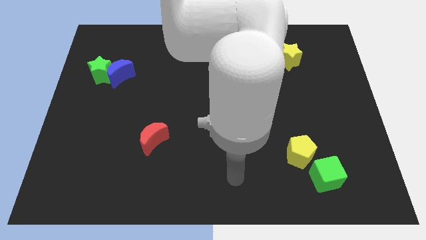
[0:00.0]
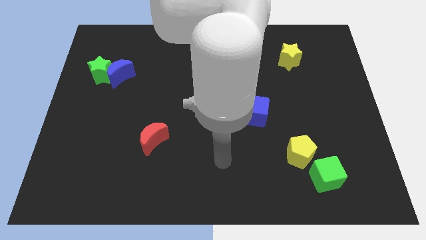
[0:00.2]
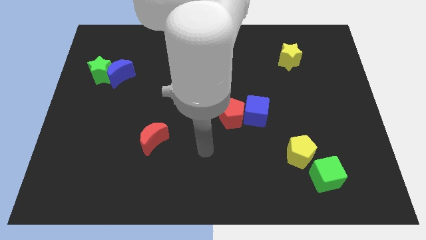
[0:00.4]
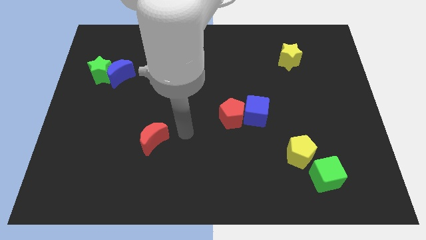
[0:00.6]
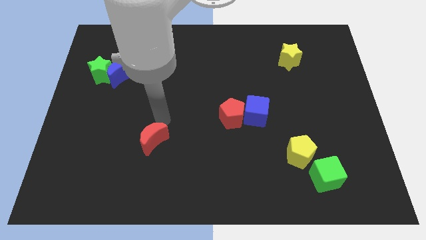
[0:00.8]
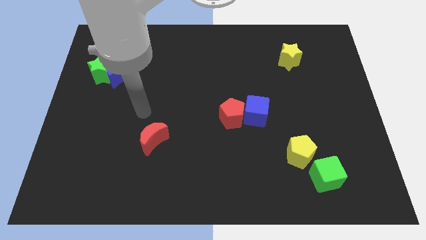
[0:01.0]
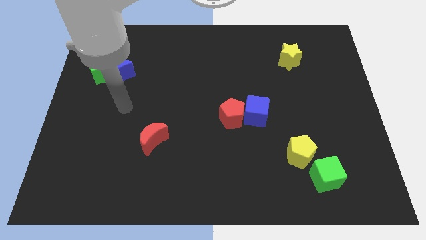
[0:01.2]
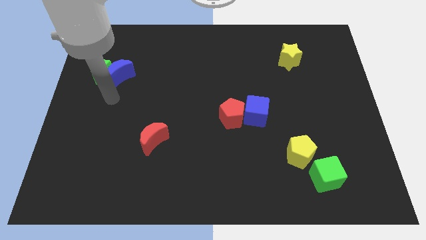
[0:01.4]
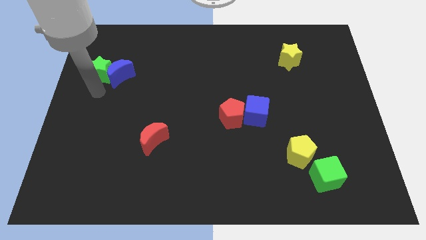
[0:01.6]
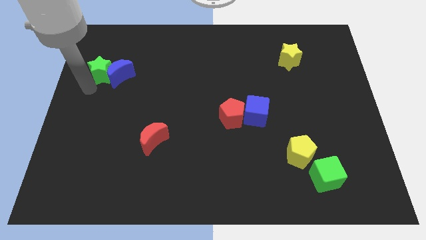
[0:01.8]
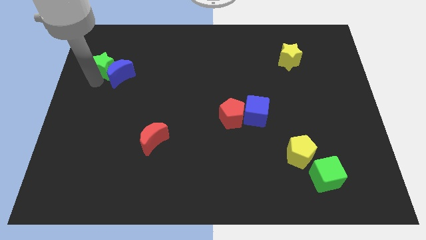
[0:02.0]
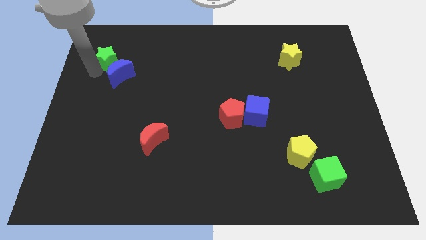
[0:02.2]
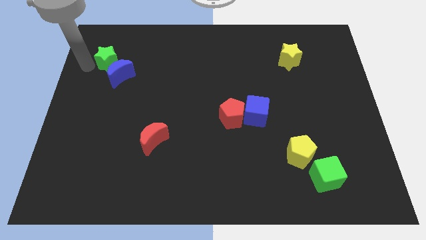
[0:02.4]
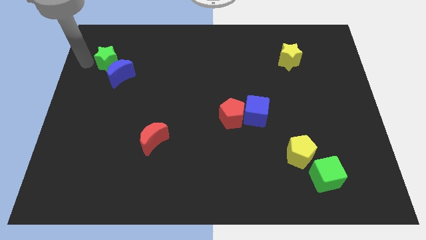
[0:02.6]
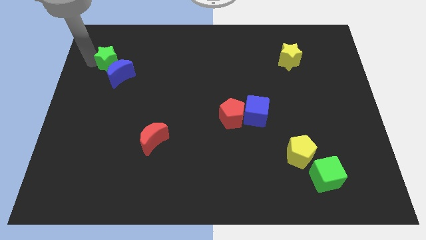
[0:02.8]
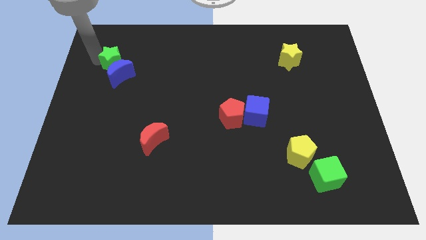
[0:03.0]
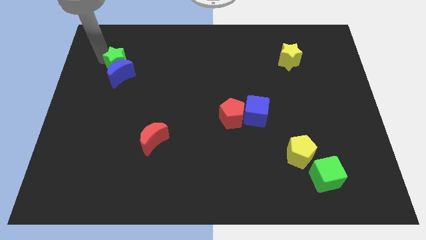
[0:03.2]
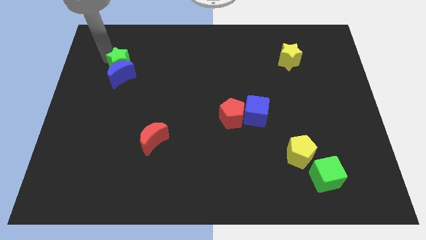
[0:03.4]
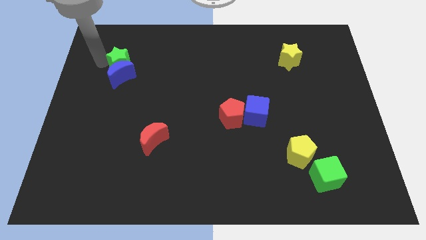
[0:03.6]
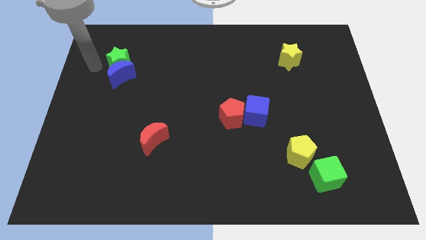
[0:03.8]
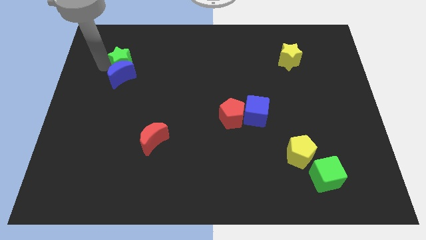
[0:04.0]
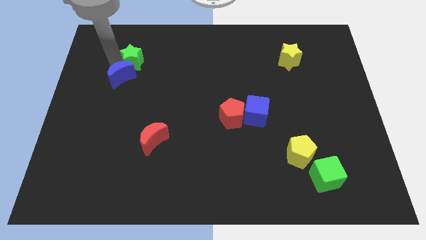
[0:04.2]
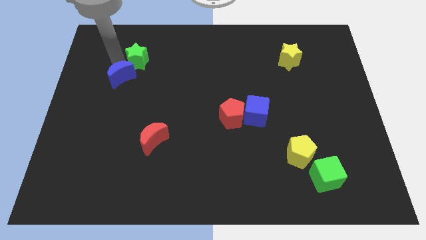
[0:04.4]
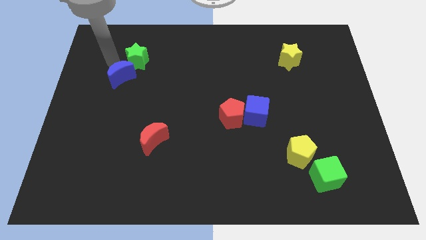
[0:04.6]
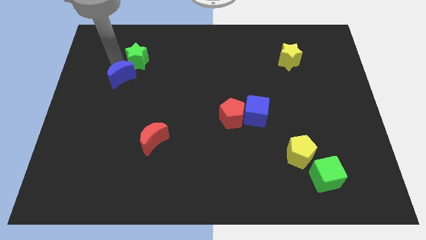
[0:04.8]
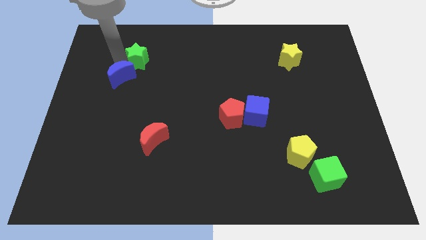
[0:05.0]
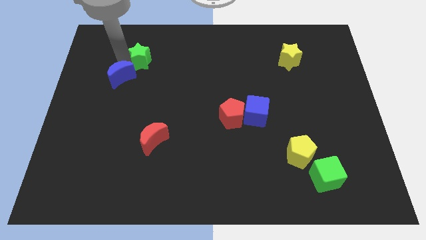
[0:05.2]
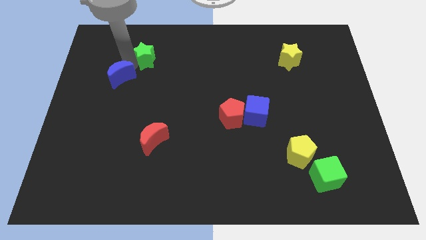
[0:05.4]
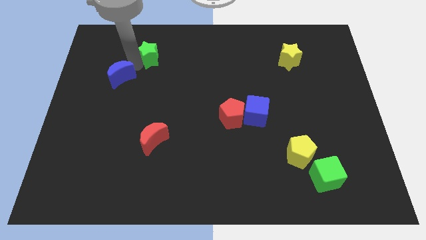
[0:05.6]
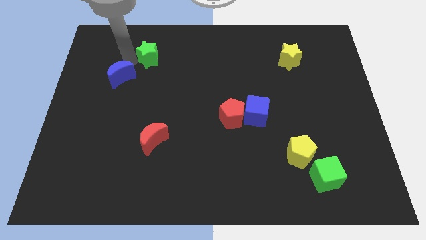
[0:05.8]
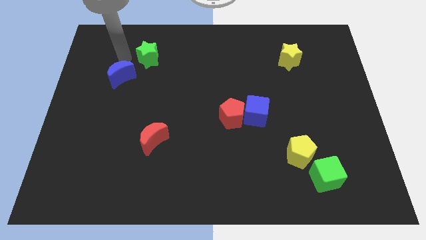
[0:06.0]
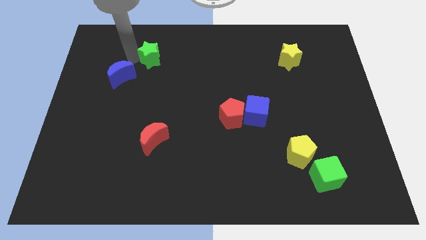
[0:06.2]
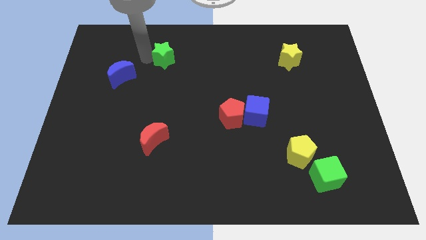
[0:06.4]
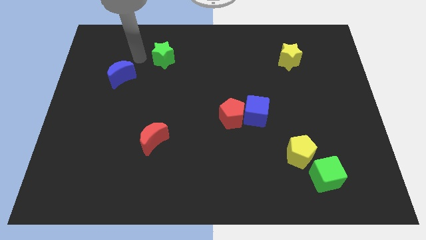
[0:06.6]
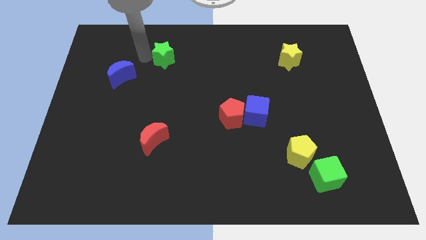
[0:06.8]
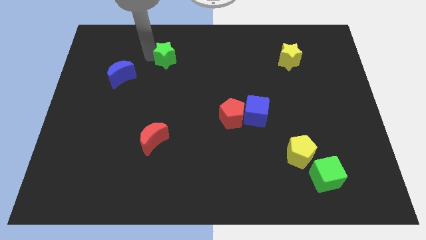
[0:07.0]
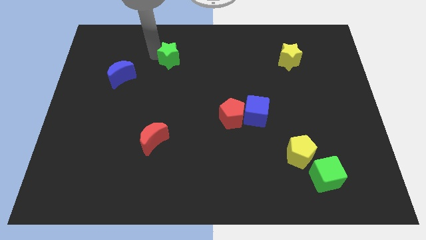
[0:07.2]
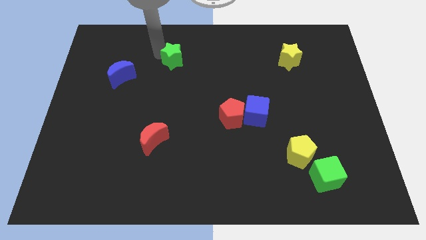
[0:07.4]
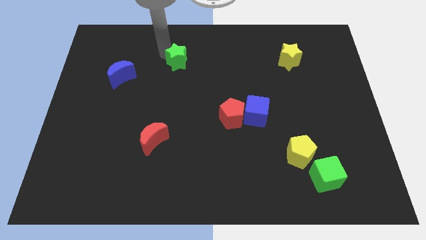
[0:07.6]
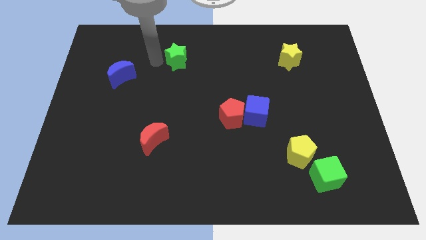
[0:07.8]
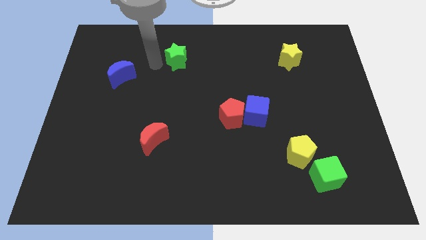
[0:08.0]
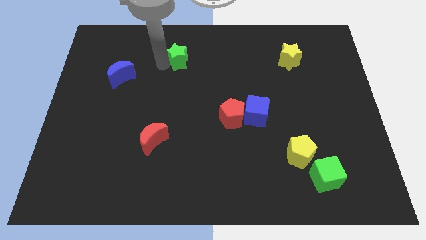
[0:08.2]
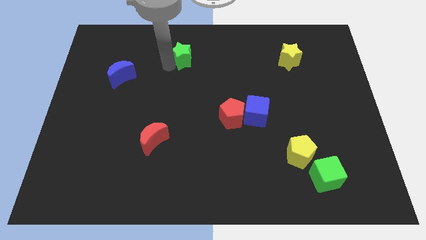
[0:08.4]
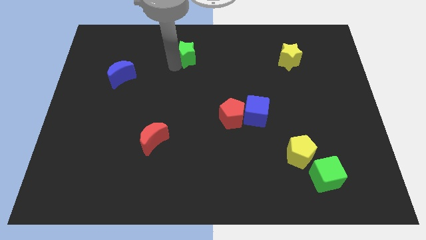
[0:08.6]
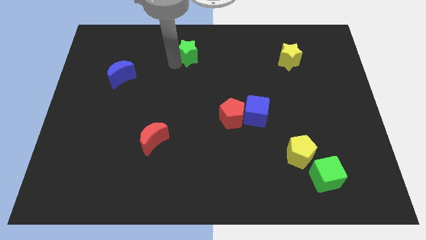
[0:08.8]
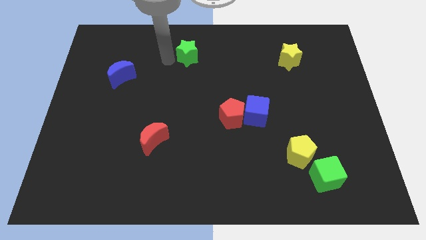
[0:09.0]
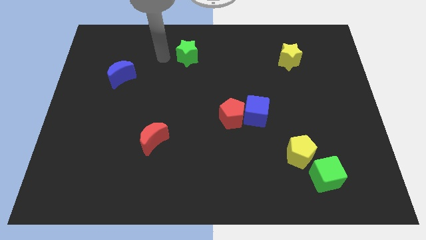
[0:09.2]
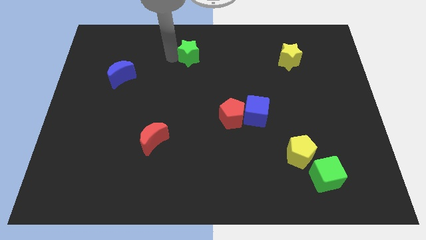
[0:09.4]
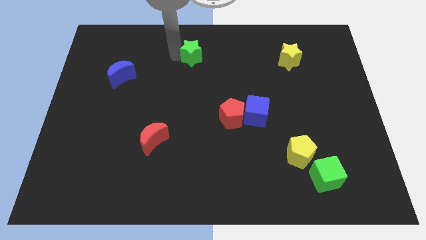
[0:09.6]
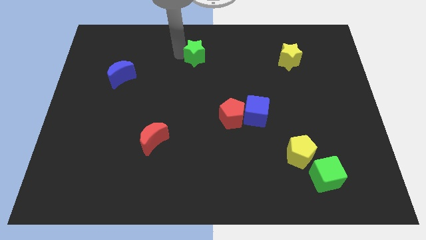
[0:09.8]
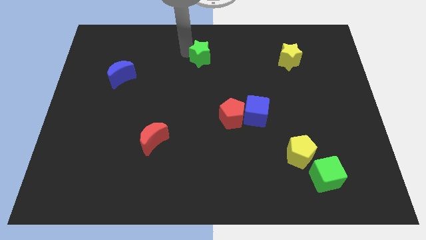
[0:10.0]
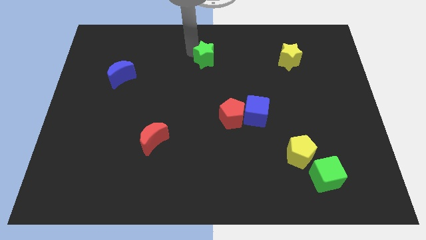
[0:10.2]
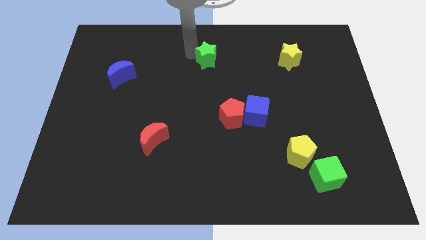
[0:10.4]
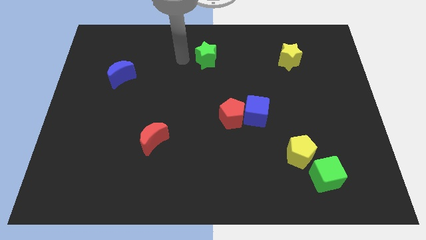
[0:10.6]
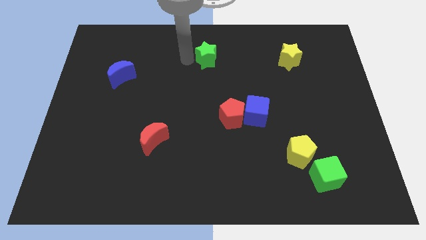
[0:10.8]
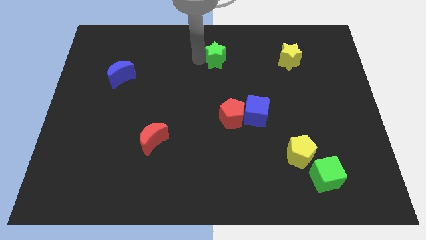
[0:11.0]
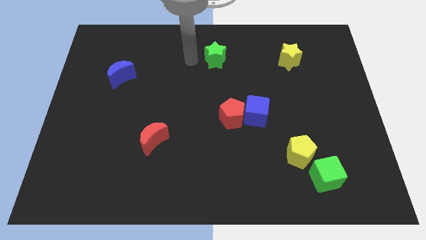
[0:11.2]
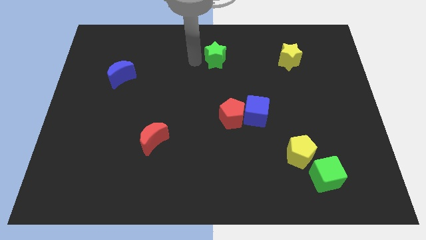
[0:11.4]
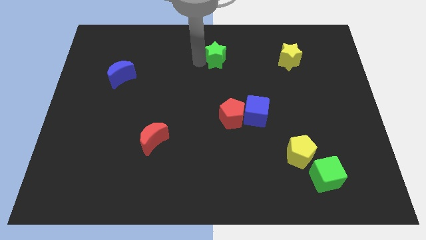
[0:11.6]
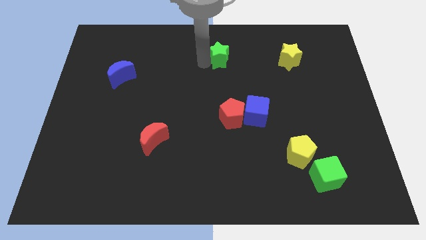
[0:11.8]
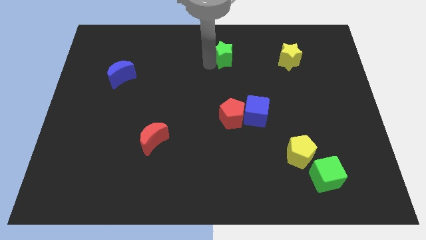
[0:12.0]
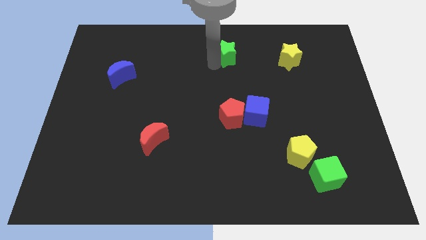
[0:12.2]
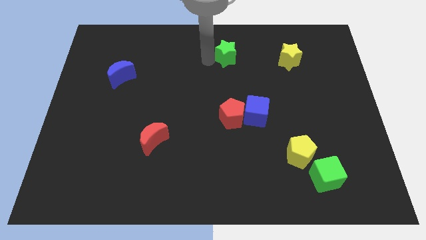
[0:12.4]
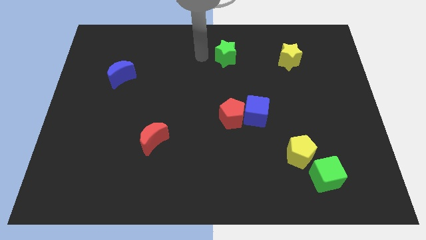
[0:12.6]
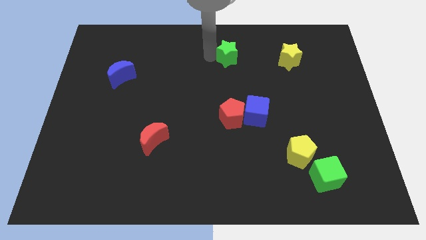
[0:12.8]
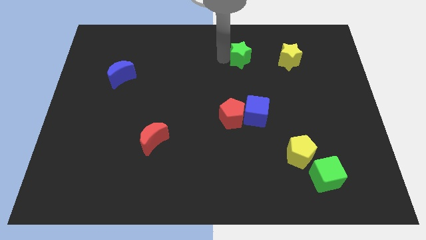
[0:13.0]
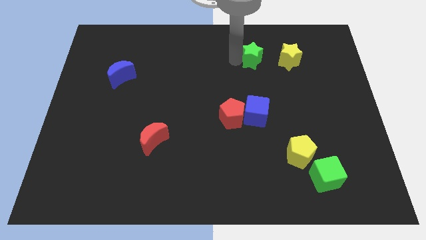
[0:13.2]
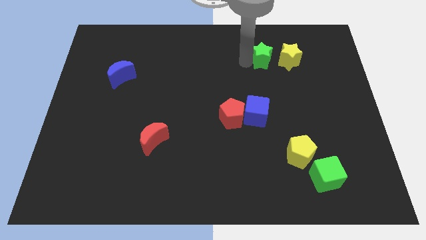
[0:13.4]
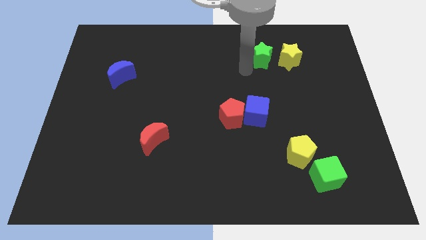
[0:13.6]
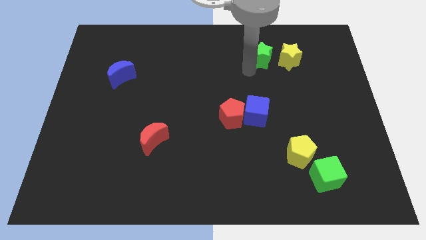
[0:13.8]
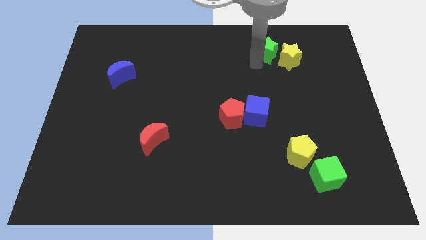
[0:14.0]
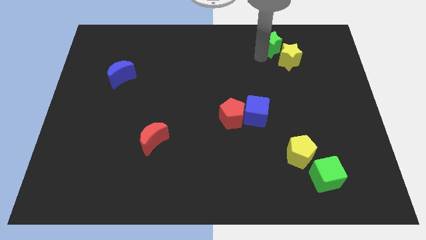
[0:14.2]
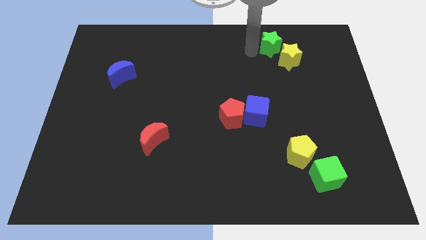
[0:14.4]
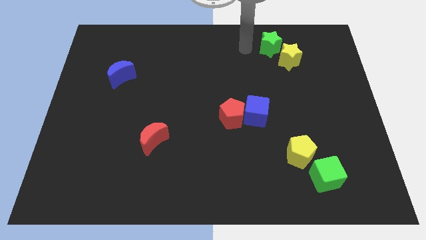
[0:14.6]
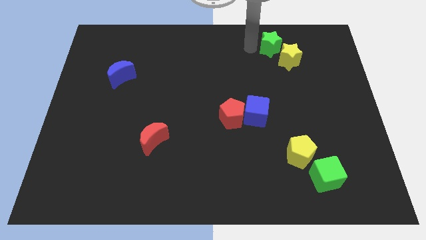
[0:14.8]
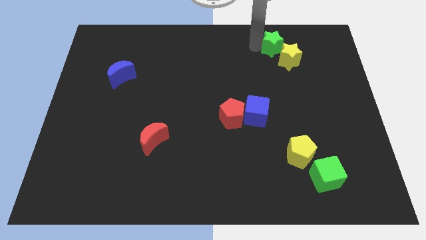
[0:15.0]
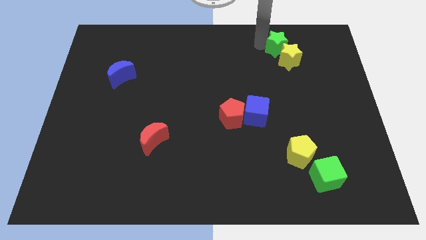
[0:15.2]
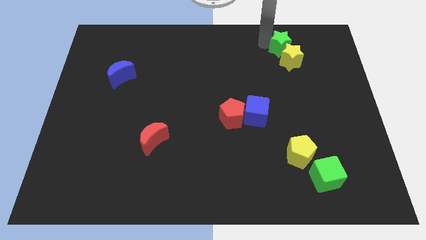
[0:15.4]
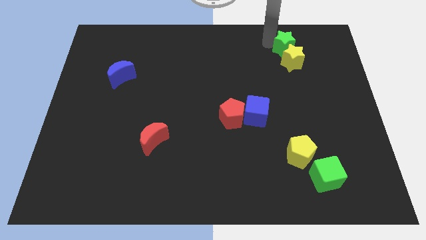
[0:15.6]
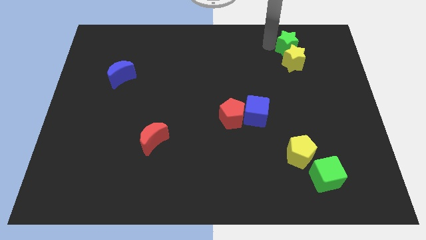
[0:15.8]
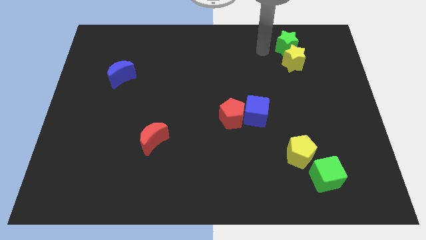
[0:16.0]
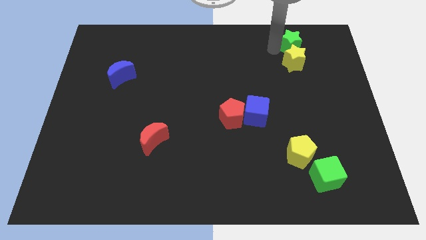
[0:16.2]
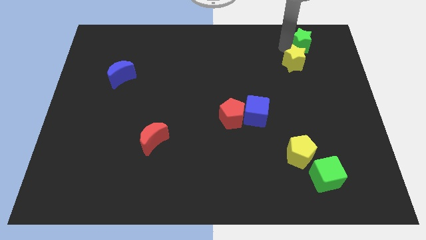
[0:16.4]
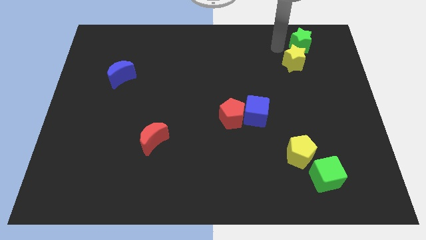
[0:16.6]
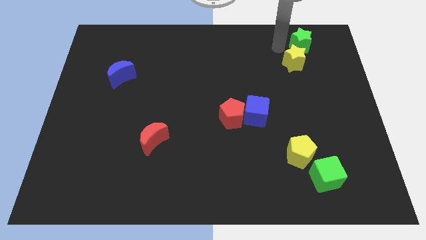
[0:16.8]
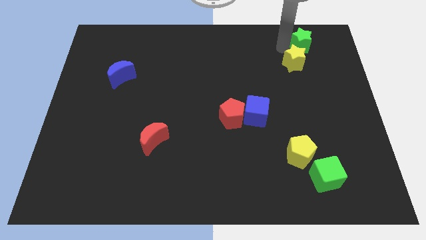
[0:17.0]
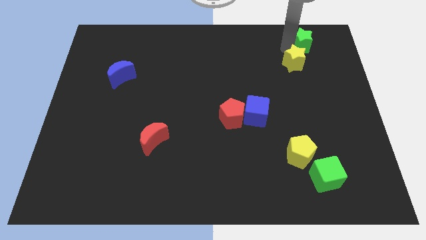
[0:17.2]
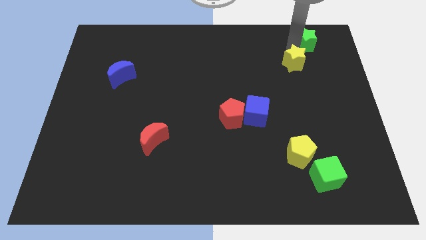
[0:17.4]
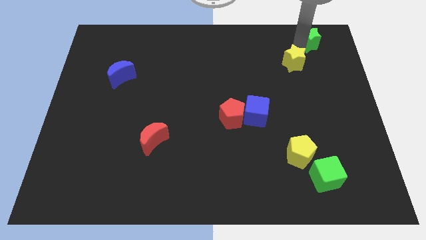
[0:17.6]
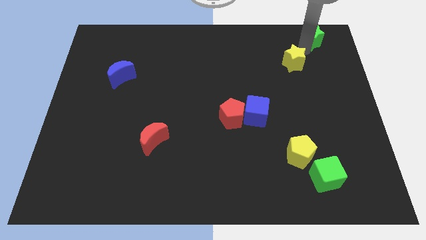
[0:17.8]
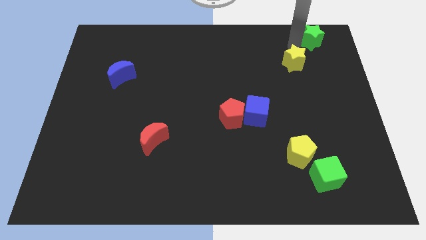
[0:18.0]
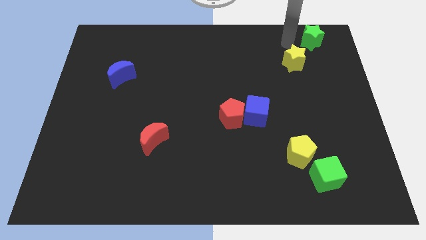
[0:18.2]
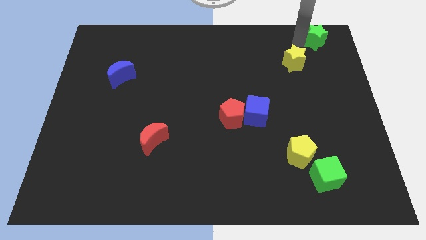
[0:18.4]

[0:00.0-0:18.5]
move the green star to the top right corner
